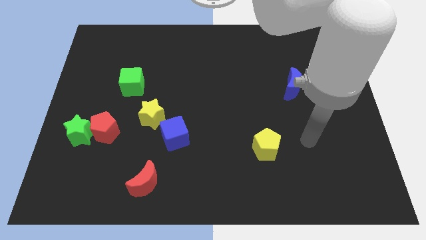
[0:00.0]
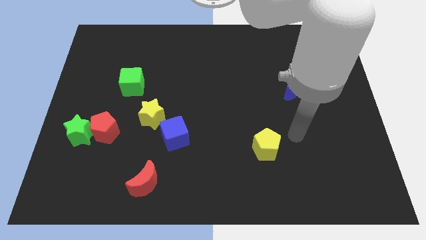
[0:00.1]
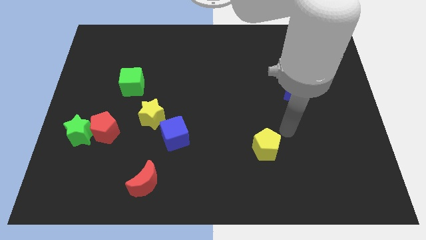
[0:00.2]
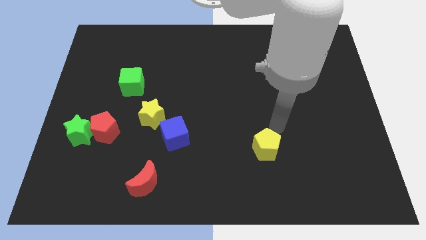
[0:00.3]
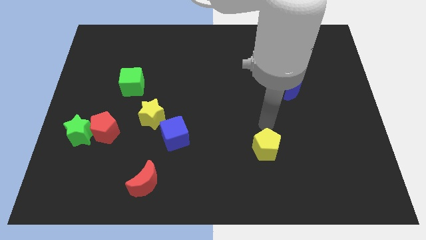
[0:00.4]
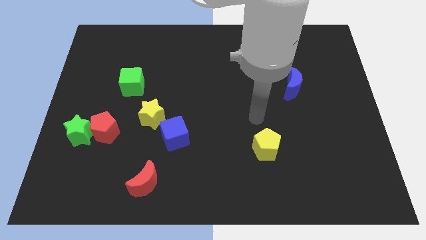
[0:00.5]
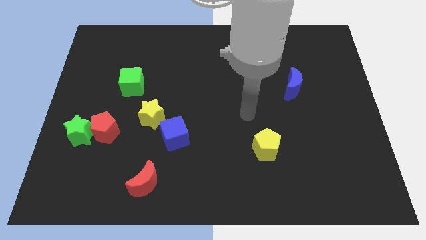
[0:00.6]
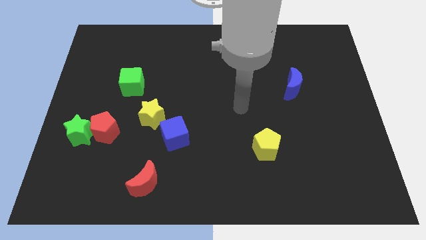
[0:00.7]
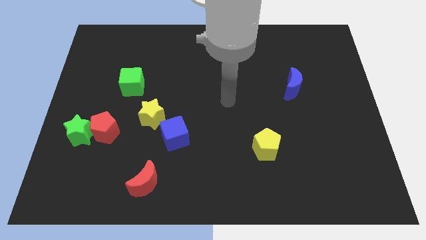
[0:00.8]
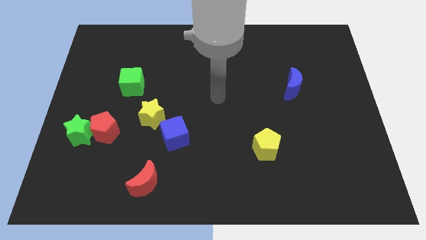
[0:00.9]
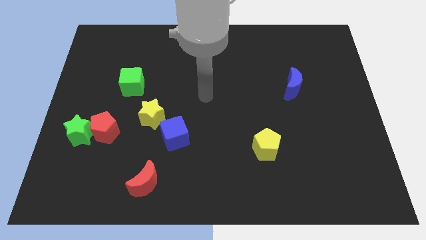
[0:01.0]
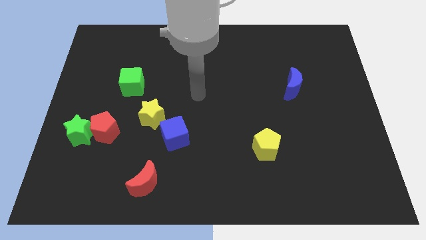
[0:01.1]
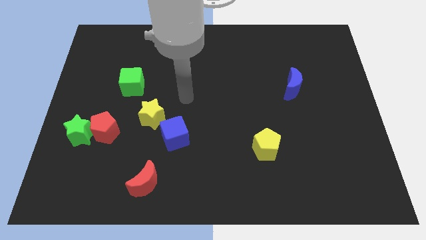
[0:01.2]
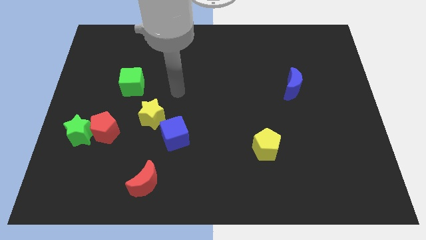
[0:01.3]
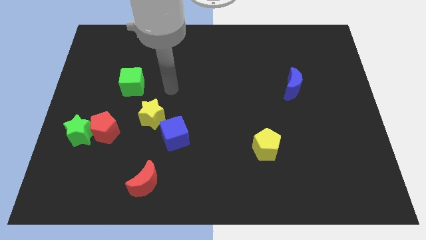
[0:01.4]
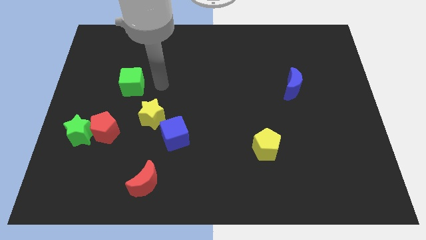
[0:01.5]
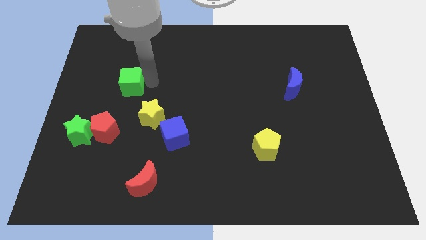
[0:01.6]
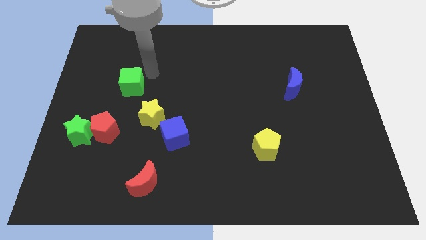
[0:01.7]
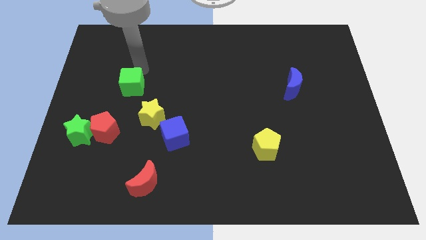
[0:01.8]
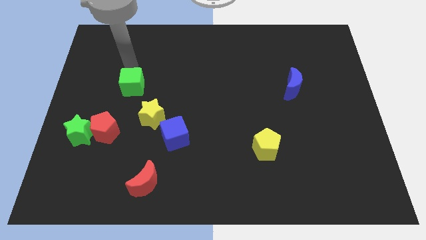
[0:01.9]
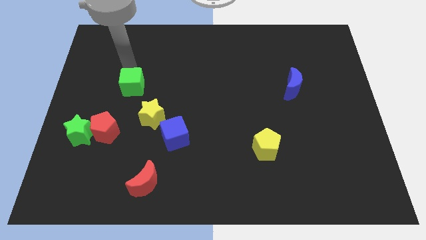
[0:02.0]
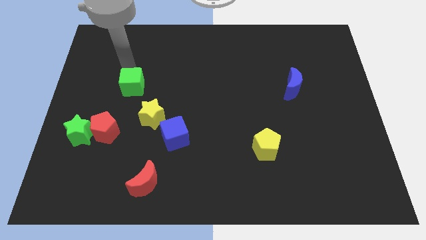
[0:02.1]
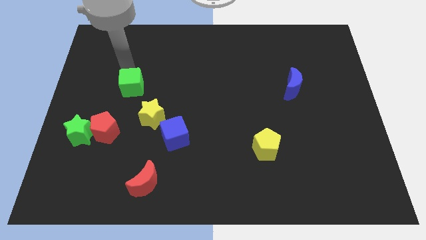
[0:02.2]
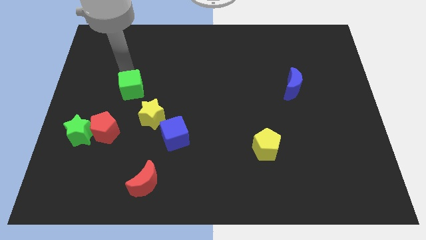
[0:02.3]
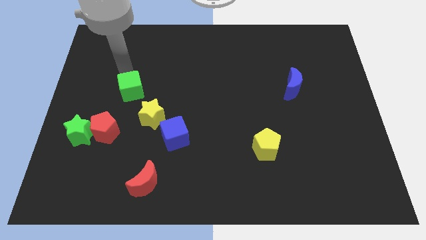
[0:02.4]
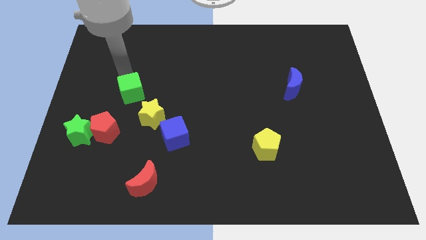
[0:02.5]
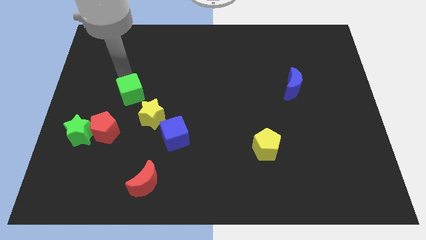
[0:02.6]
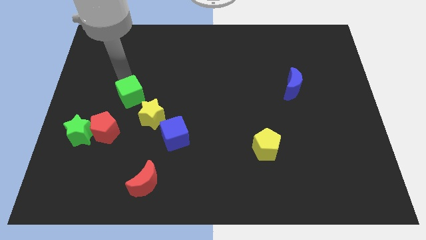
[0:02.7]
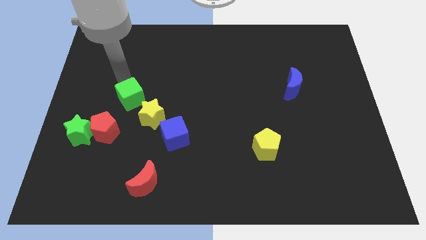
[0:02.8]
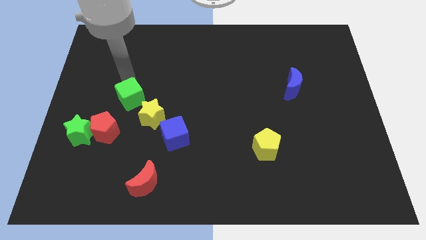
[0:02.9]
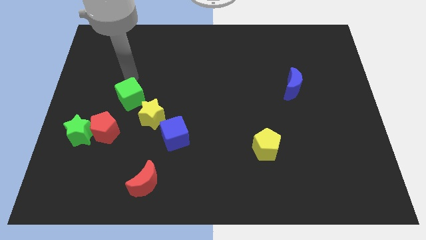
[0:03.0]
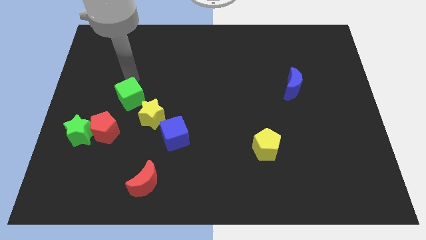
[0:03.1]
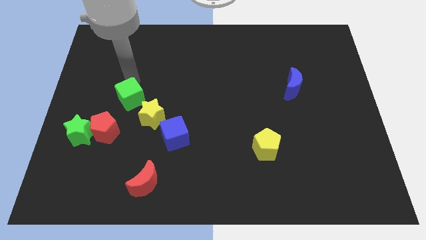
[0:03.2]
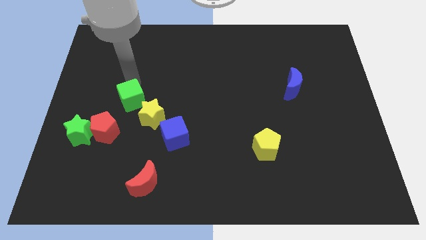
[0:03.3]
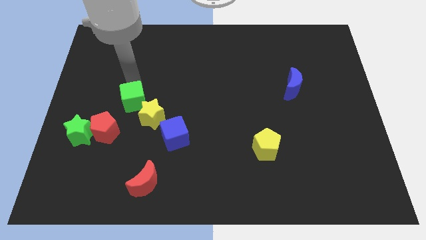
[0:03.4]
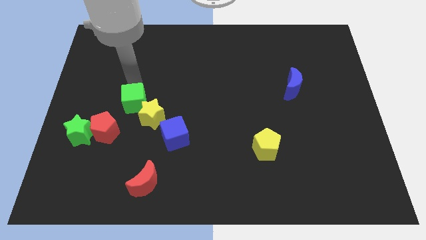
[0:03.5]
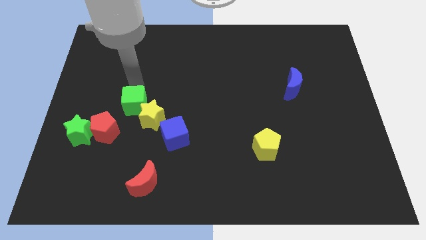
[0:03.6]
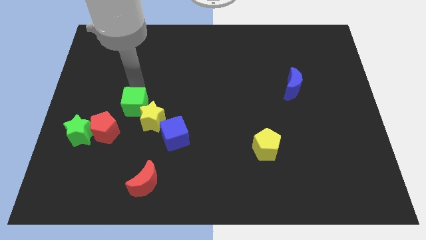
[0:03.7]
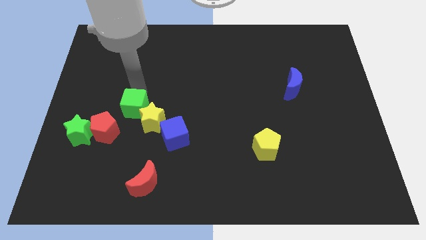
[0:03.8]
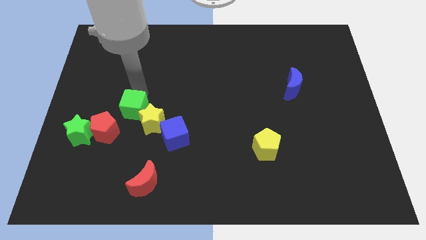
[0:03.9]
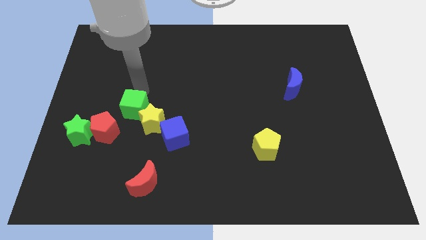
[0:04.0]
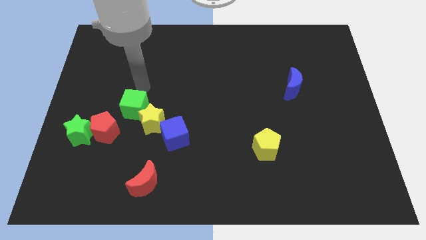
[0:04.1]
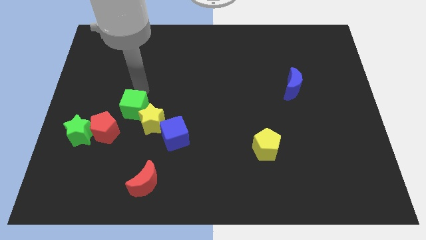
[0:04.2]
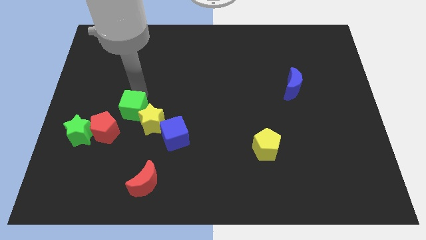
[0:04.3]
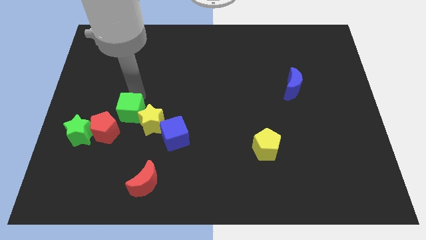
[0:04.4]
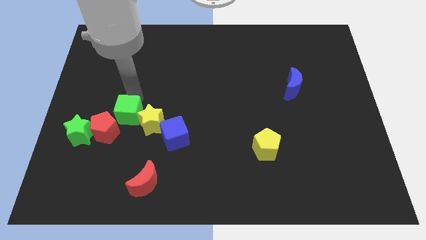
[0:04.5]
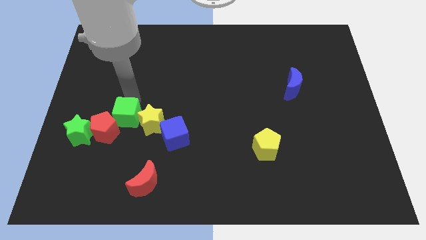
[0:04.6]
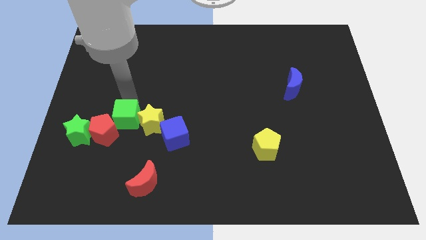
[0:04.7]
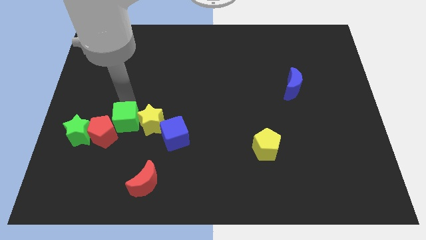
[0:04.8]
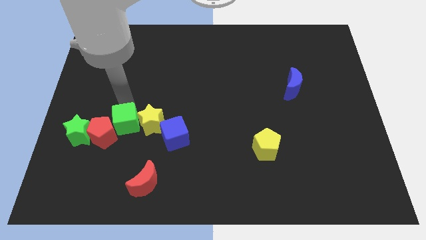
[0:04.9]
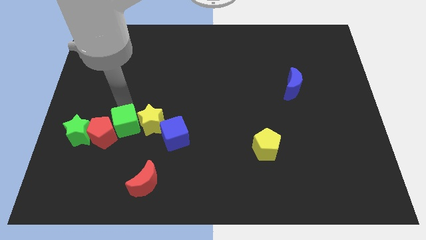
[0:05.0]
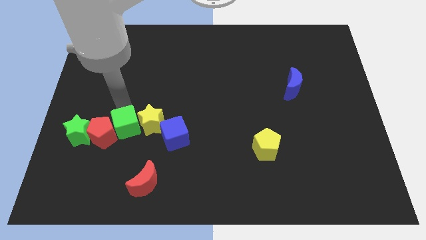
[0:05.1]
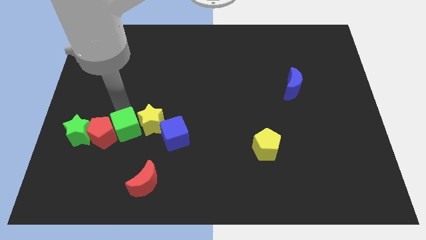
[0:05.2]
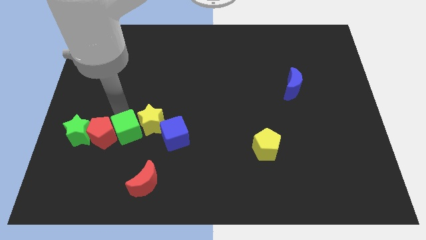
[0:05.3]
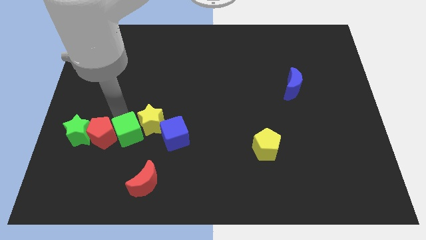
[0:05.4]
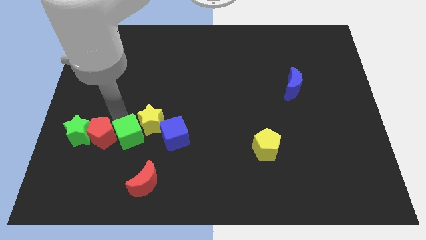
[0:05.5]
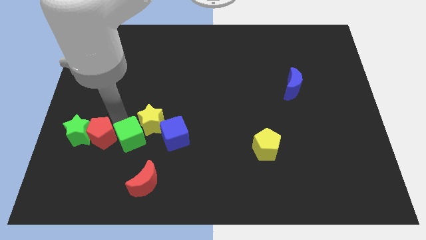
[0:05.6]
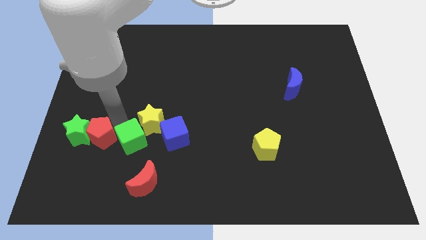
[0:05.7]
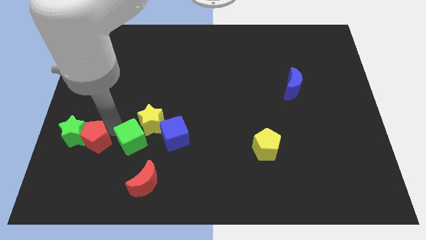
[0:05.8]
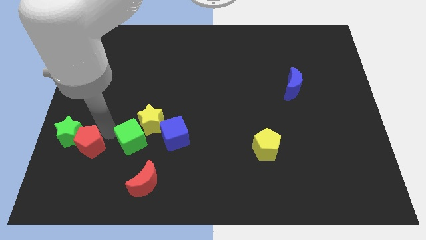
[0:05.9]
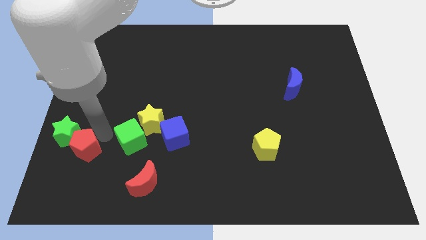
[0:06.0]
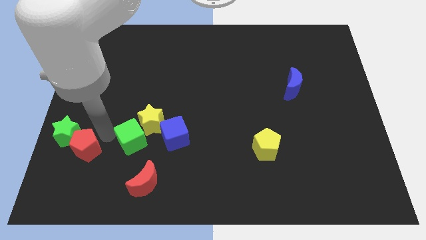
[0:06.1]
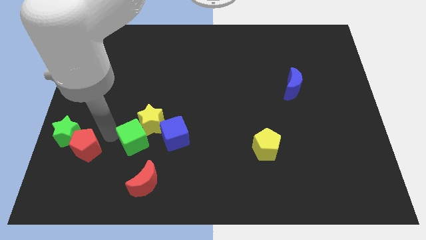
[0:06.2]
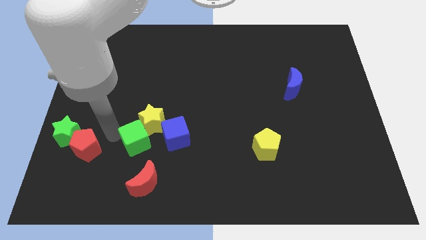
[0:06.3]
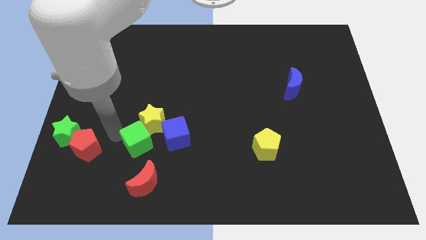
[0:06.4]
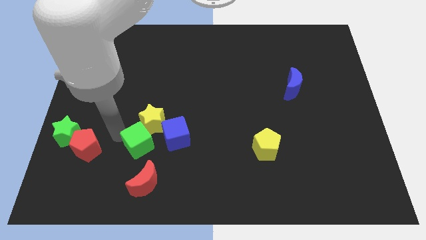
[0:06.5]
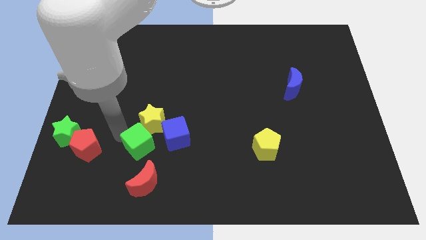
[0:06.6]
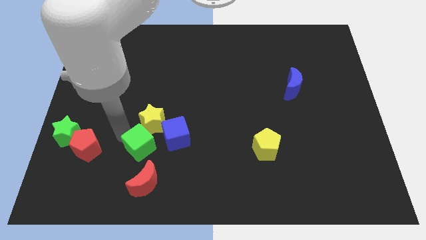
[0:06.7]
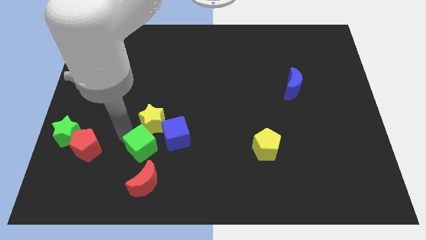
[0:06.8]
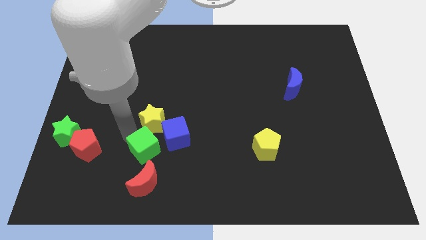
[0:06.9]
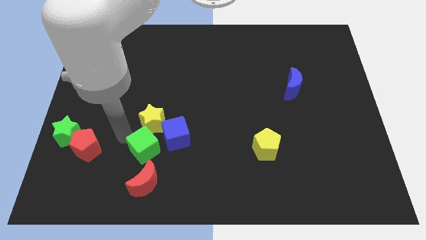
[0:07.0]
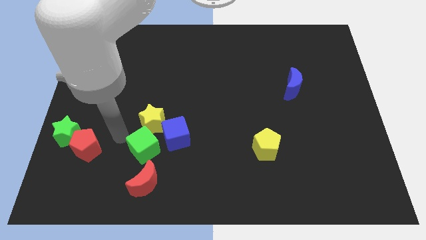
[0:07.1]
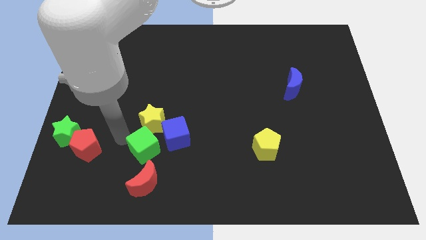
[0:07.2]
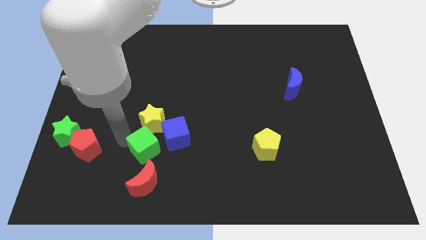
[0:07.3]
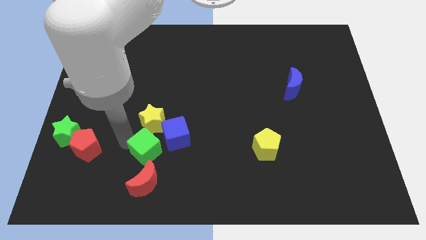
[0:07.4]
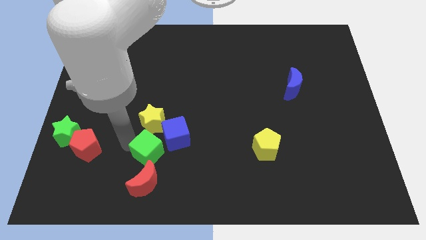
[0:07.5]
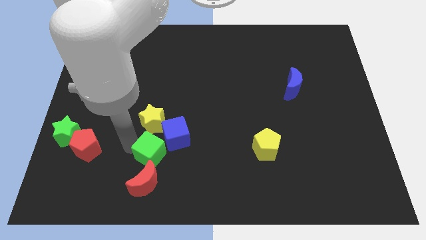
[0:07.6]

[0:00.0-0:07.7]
move the green cube to the top right of the red moon
